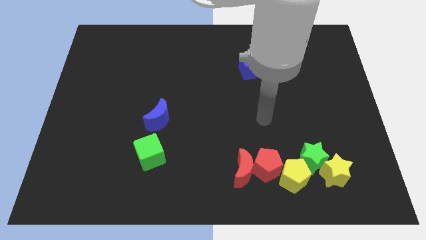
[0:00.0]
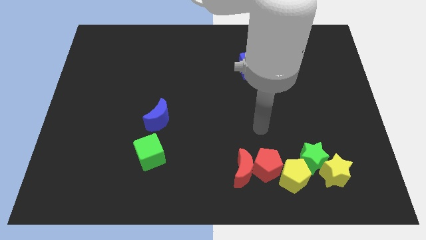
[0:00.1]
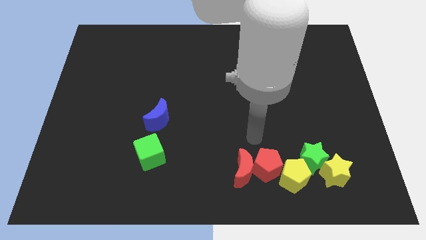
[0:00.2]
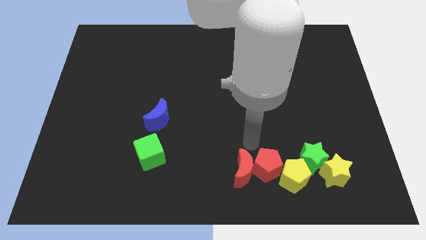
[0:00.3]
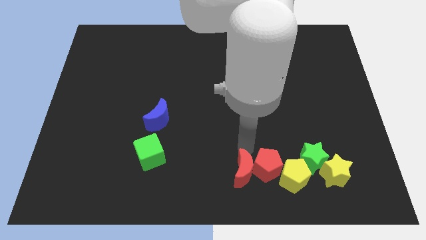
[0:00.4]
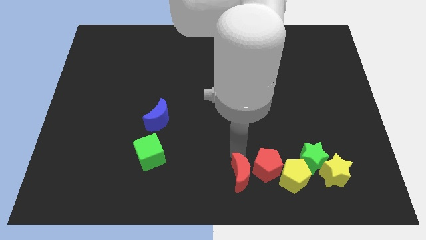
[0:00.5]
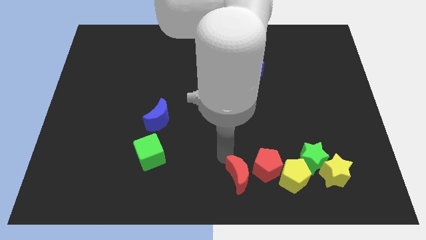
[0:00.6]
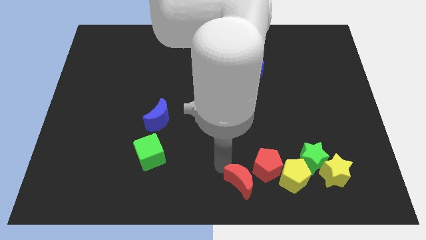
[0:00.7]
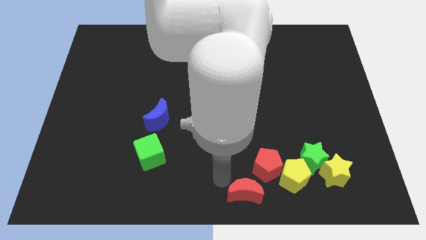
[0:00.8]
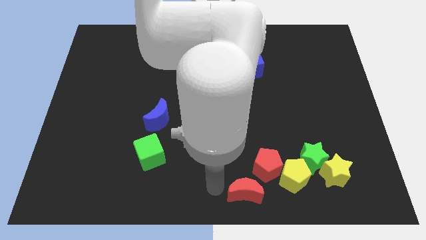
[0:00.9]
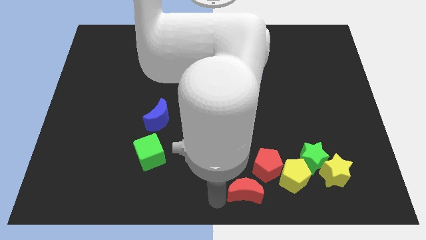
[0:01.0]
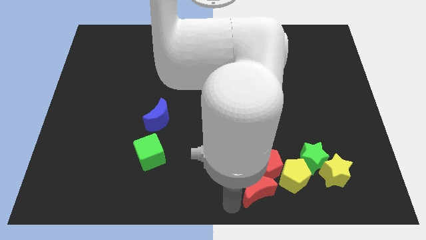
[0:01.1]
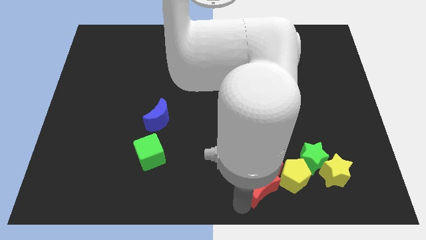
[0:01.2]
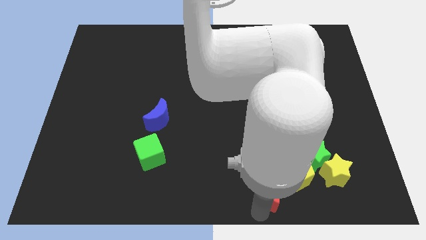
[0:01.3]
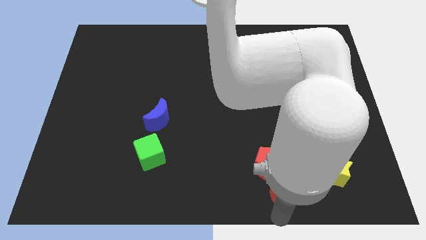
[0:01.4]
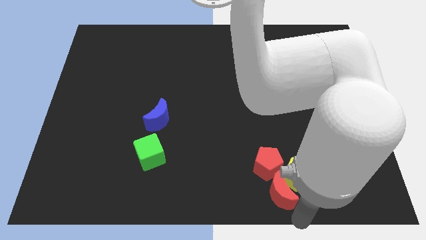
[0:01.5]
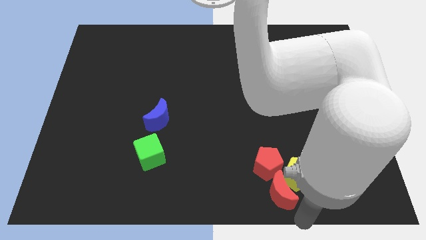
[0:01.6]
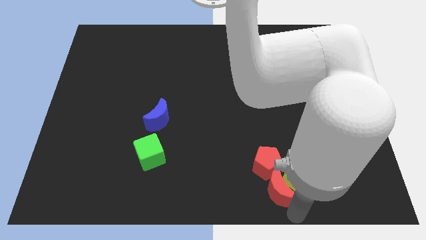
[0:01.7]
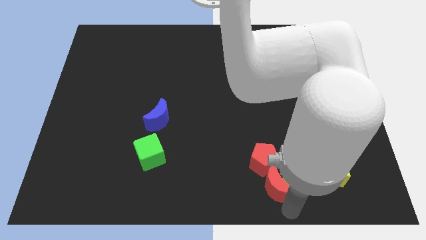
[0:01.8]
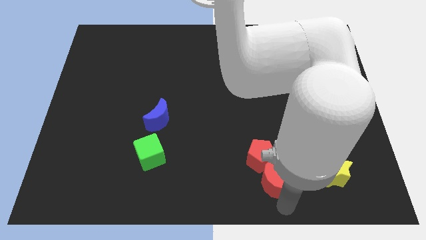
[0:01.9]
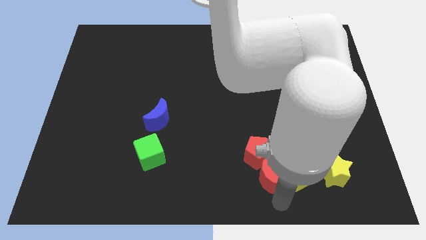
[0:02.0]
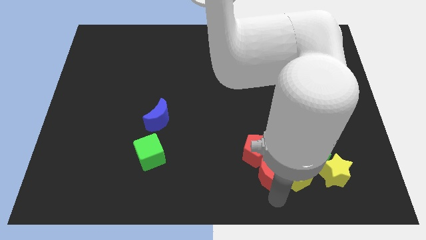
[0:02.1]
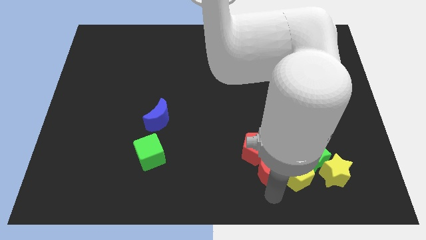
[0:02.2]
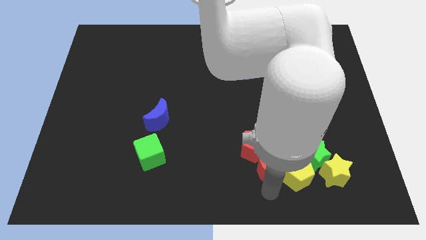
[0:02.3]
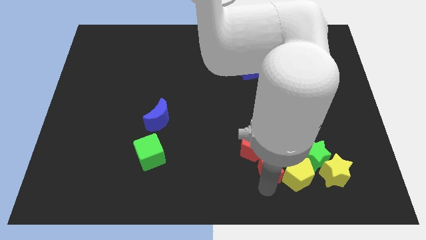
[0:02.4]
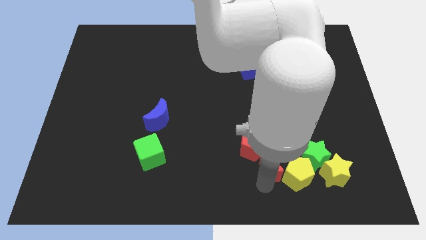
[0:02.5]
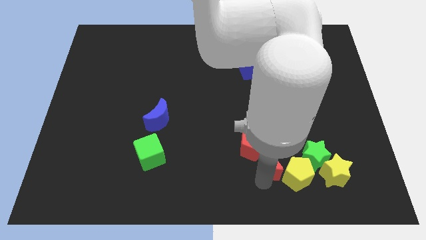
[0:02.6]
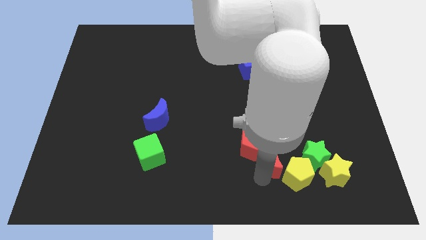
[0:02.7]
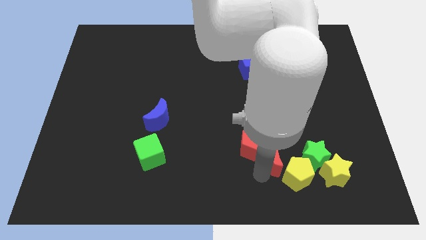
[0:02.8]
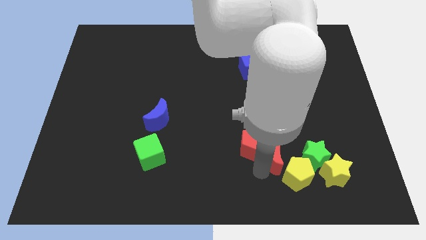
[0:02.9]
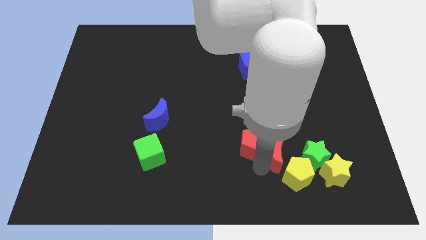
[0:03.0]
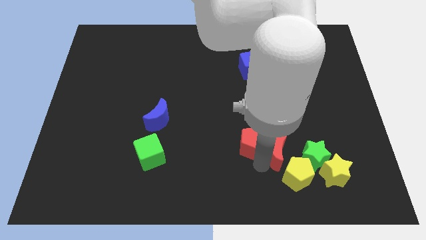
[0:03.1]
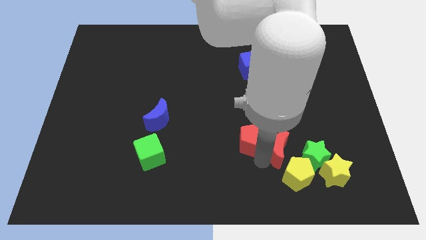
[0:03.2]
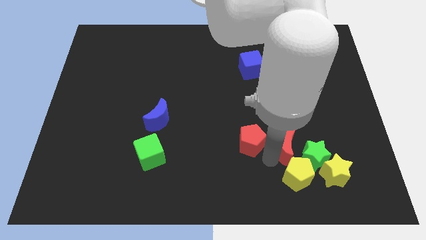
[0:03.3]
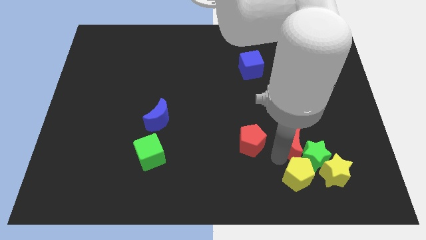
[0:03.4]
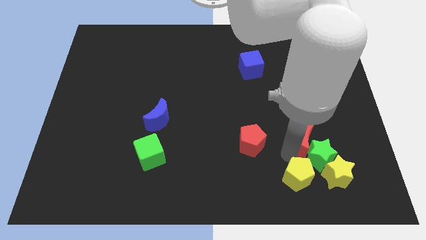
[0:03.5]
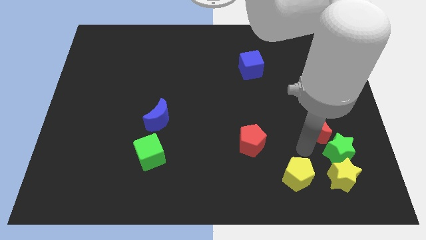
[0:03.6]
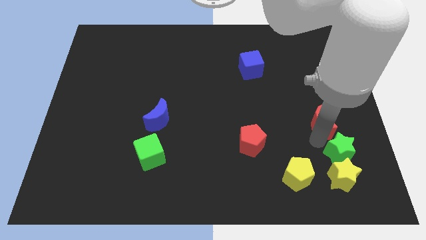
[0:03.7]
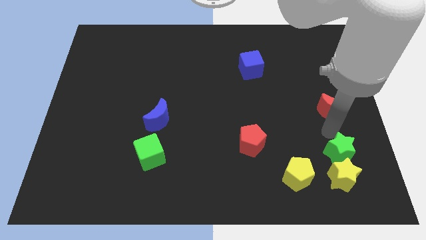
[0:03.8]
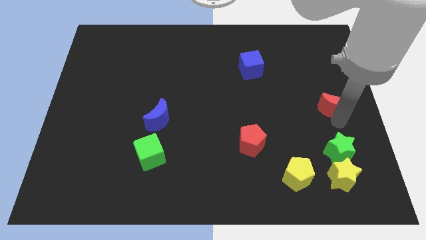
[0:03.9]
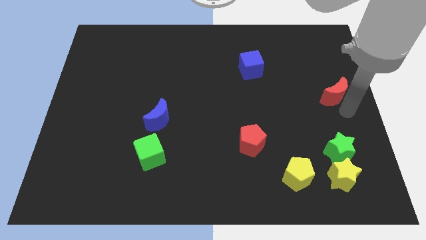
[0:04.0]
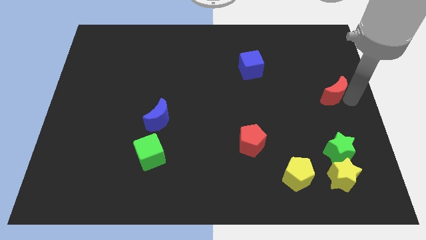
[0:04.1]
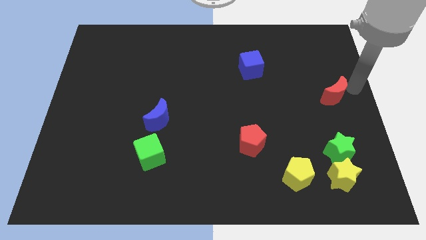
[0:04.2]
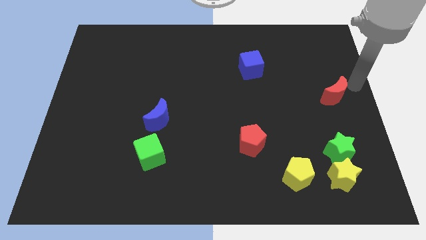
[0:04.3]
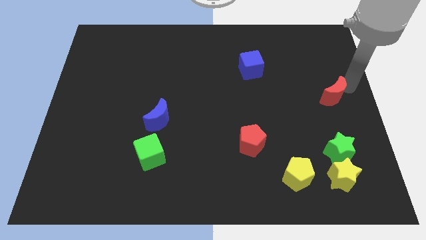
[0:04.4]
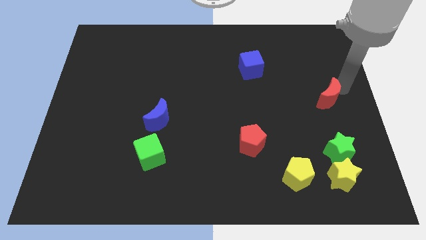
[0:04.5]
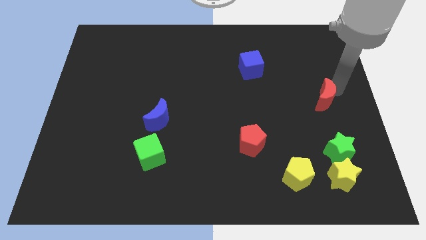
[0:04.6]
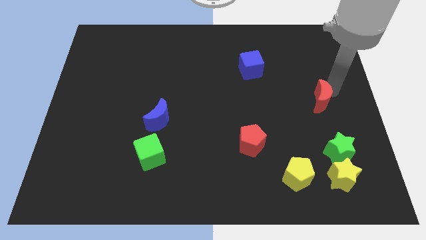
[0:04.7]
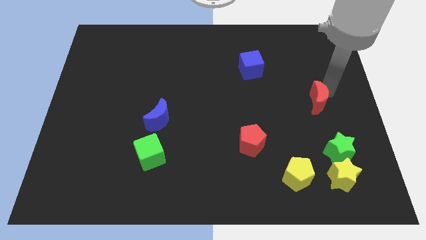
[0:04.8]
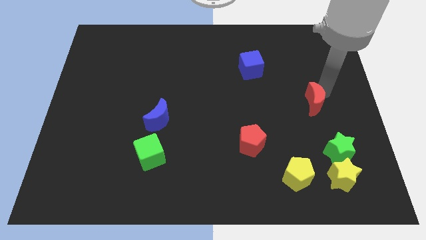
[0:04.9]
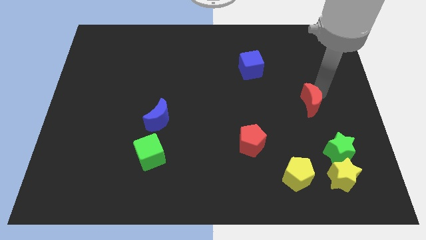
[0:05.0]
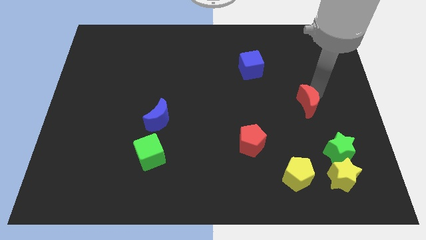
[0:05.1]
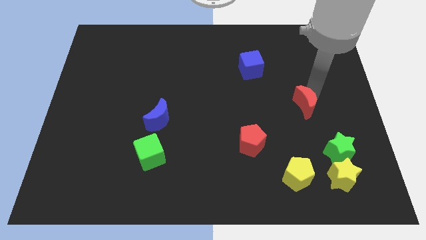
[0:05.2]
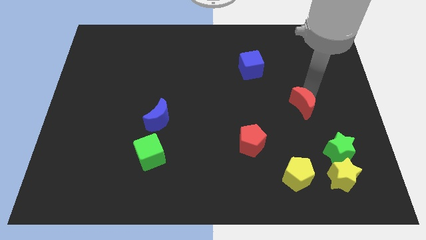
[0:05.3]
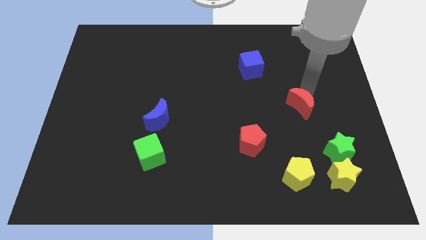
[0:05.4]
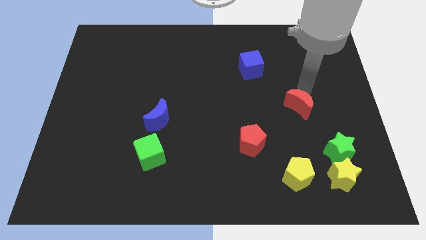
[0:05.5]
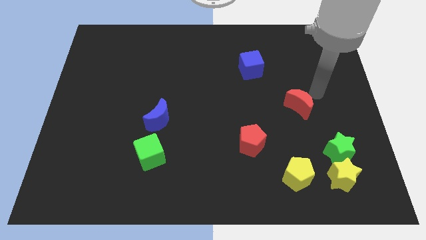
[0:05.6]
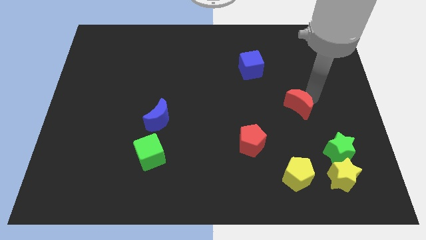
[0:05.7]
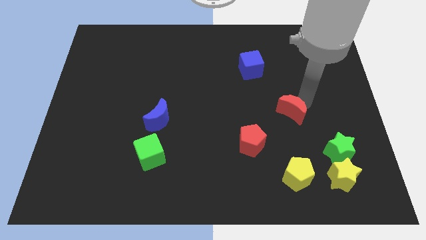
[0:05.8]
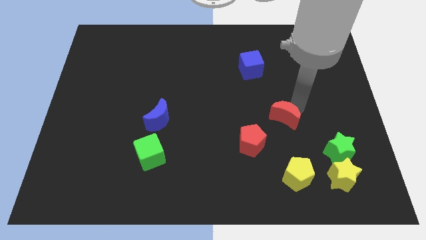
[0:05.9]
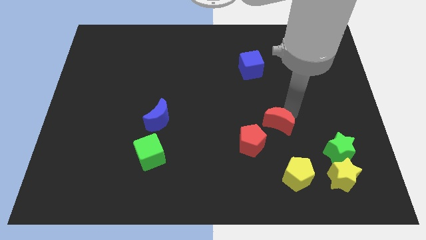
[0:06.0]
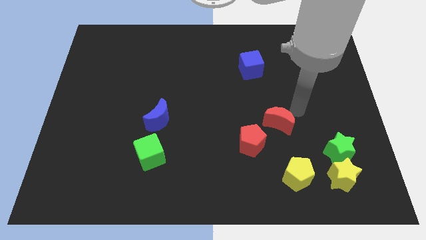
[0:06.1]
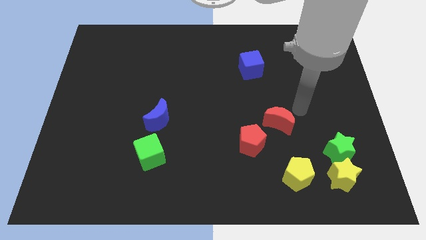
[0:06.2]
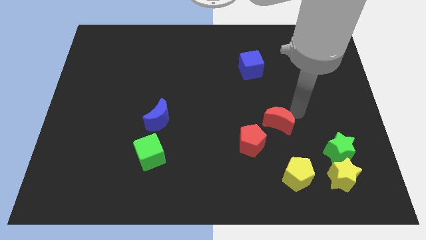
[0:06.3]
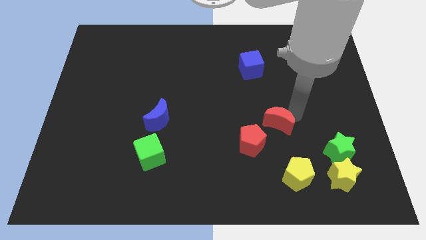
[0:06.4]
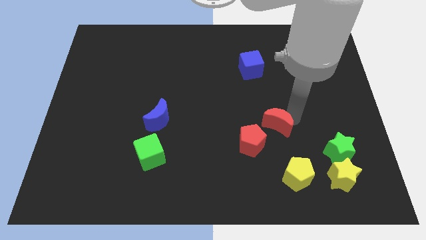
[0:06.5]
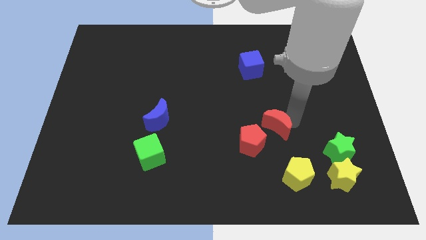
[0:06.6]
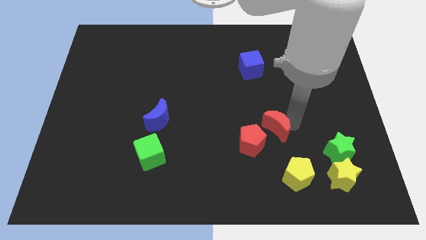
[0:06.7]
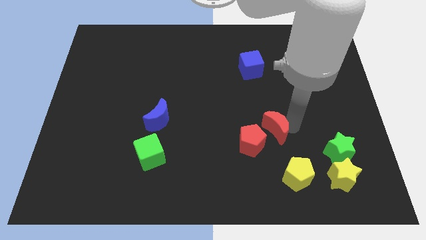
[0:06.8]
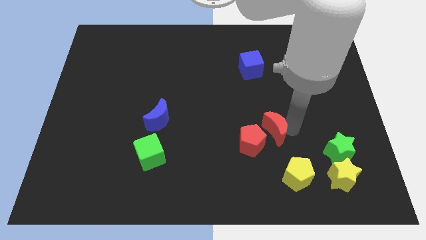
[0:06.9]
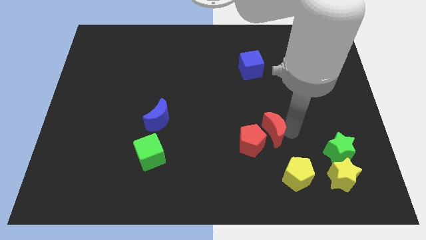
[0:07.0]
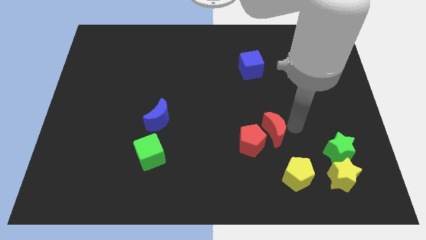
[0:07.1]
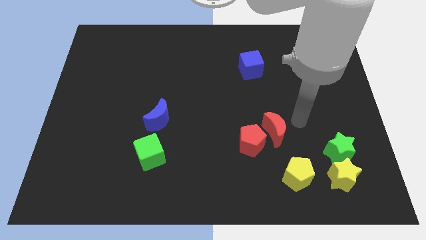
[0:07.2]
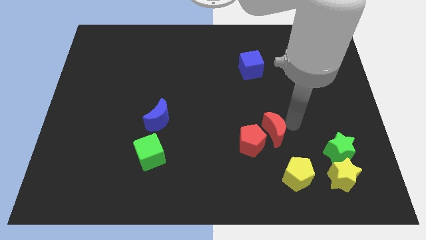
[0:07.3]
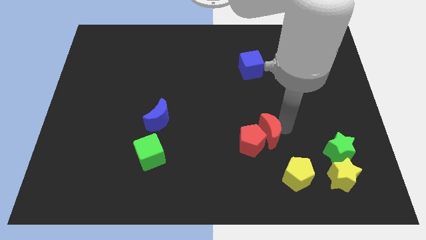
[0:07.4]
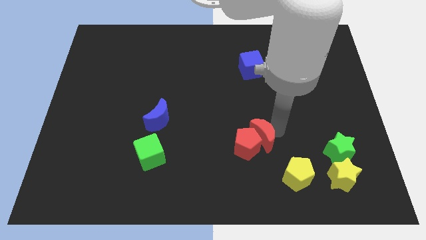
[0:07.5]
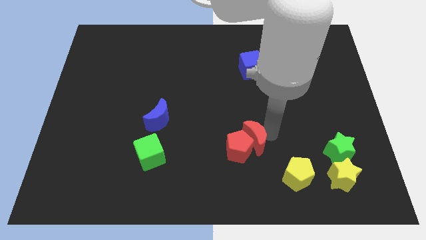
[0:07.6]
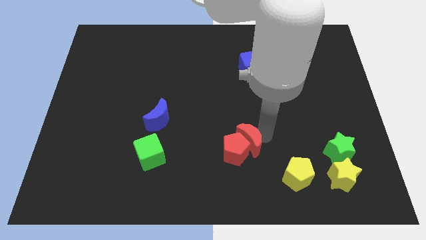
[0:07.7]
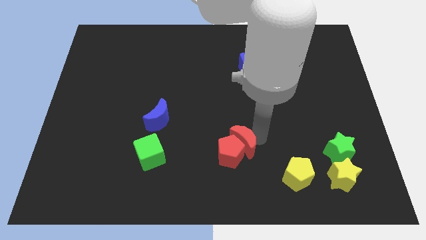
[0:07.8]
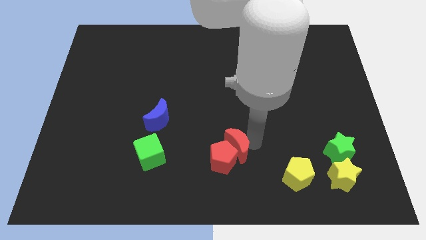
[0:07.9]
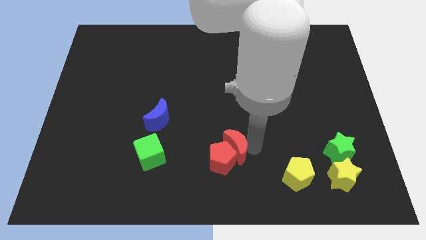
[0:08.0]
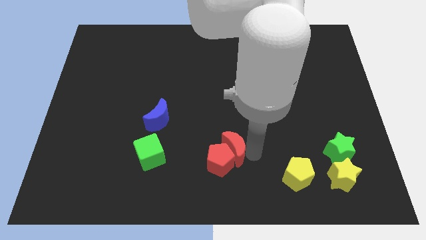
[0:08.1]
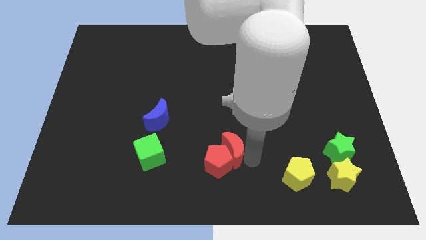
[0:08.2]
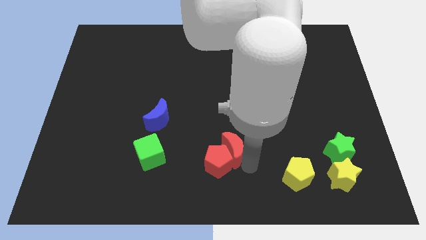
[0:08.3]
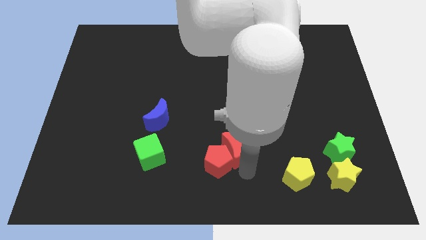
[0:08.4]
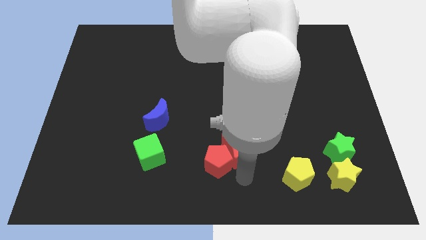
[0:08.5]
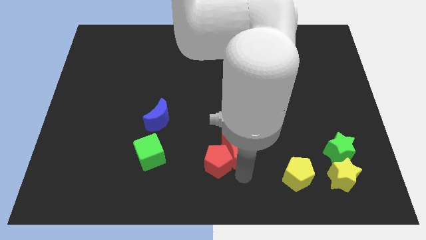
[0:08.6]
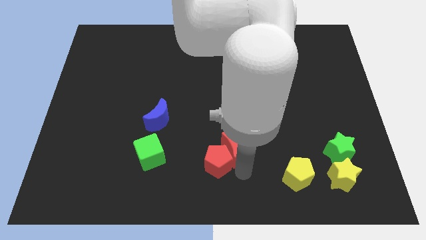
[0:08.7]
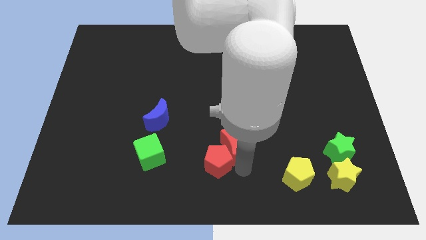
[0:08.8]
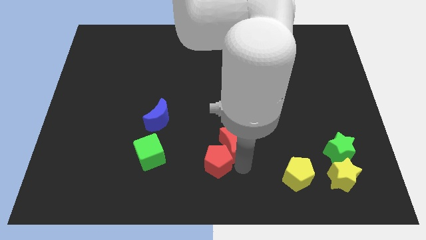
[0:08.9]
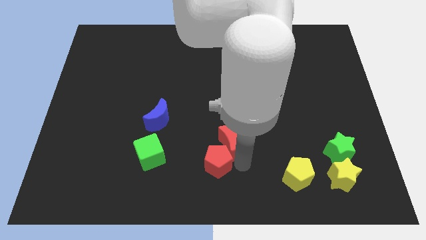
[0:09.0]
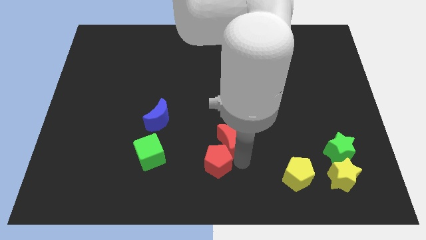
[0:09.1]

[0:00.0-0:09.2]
slide the red moon to the center
